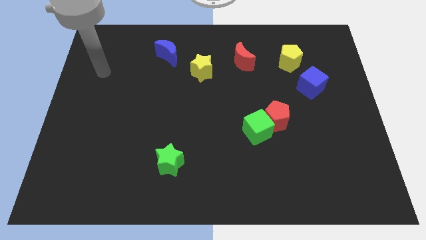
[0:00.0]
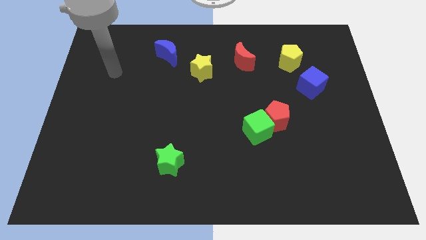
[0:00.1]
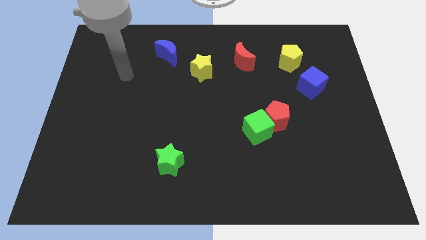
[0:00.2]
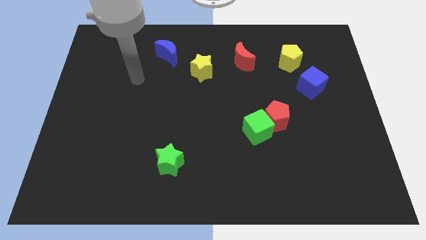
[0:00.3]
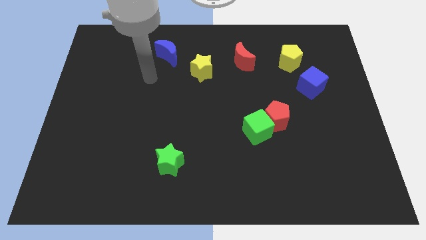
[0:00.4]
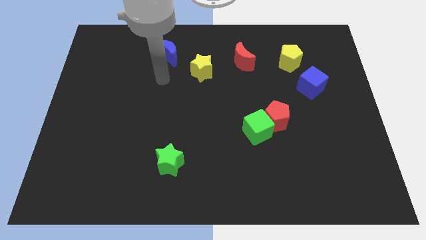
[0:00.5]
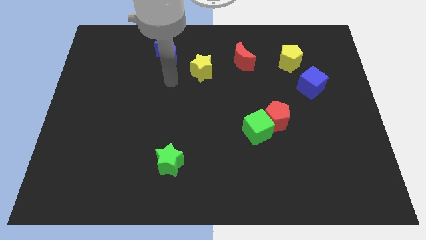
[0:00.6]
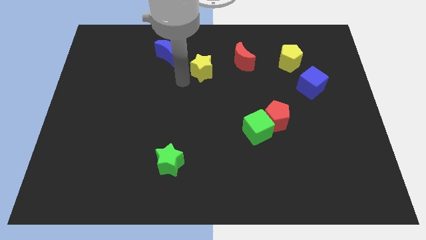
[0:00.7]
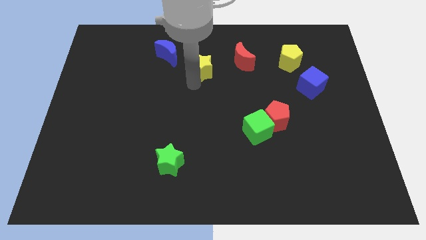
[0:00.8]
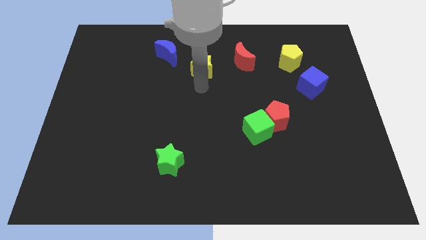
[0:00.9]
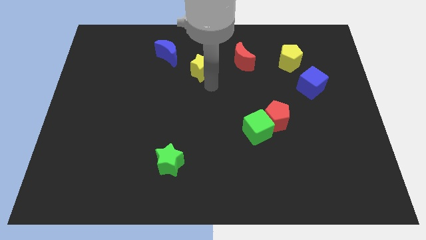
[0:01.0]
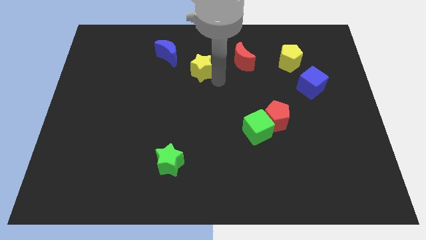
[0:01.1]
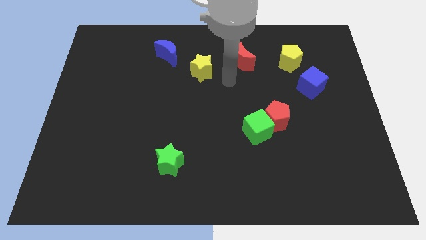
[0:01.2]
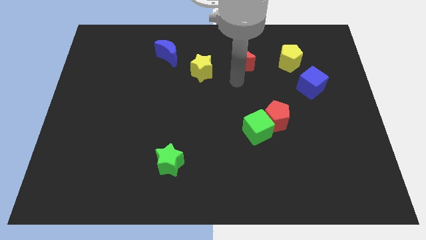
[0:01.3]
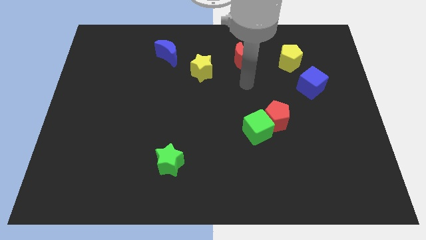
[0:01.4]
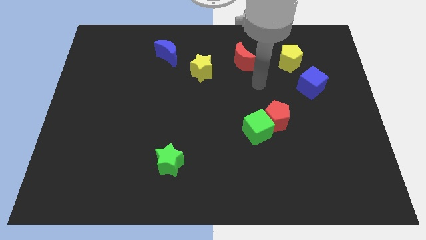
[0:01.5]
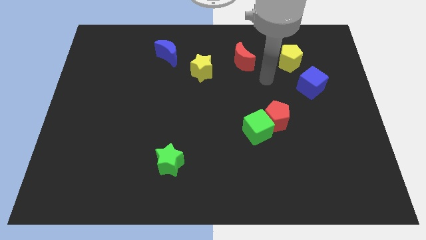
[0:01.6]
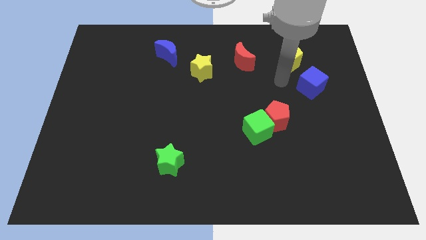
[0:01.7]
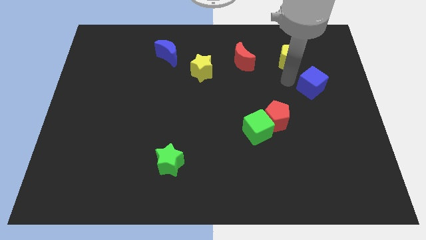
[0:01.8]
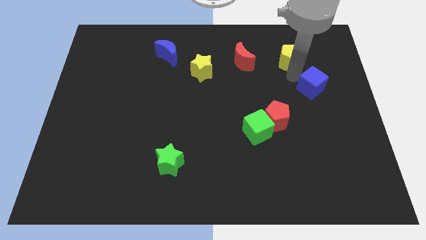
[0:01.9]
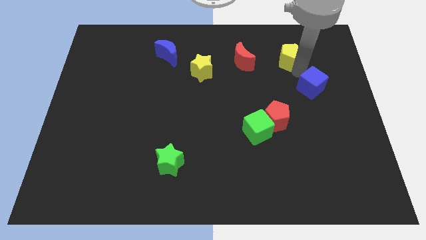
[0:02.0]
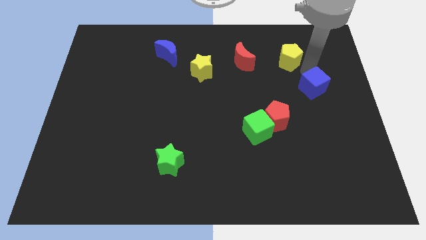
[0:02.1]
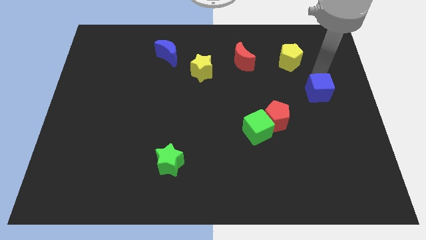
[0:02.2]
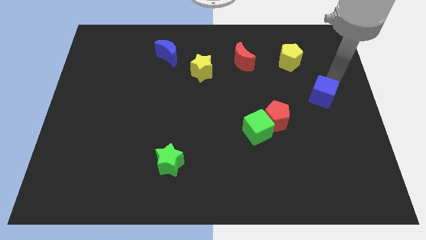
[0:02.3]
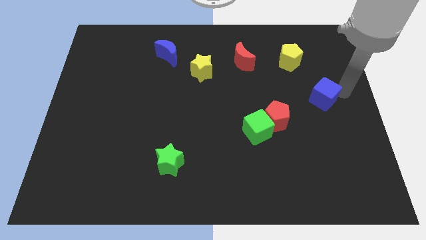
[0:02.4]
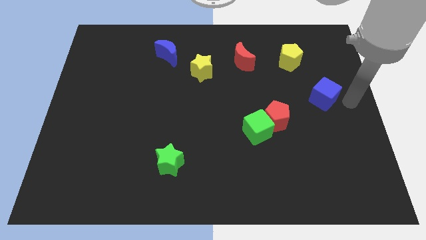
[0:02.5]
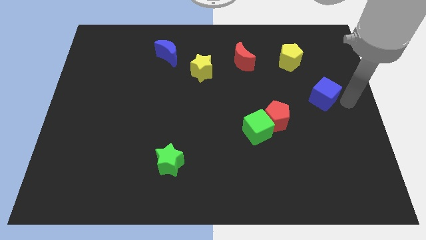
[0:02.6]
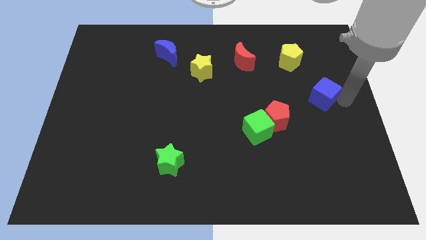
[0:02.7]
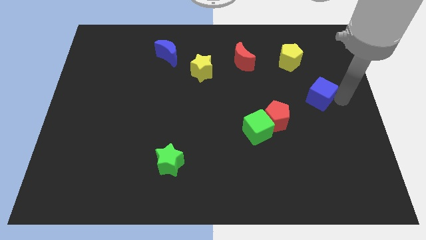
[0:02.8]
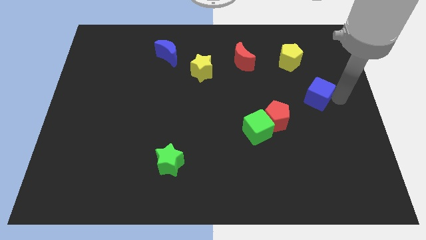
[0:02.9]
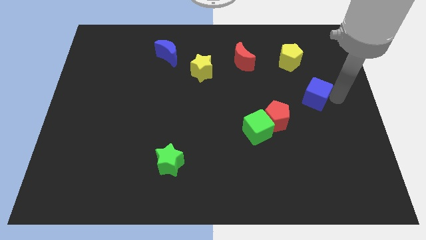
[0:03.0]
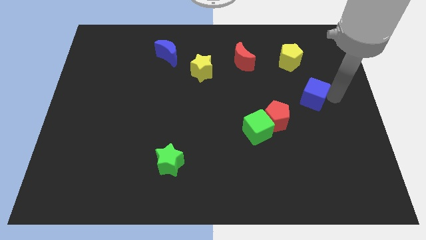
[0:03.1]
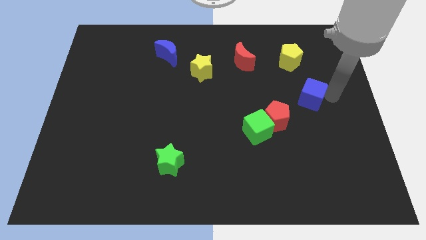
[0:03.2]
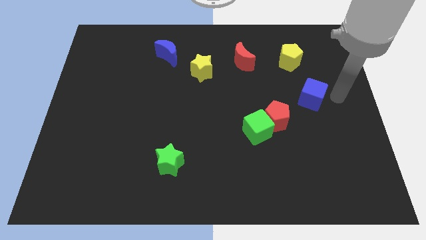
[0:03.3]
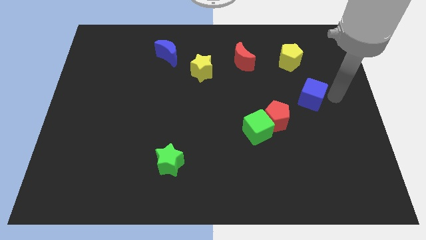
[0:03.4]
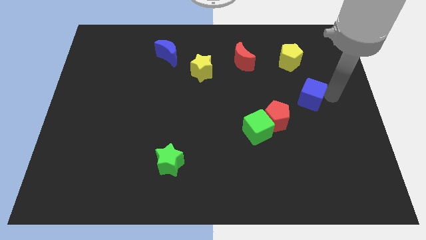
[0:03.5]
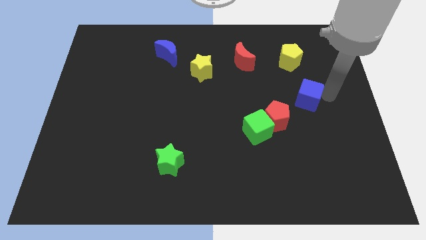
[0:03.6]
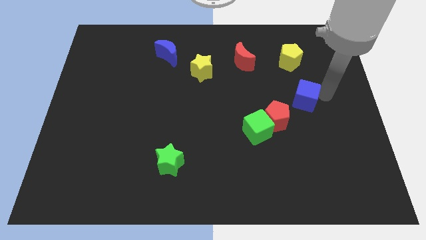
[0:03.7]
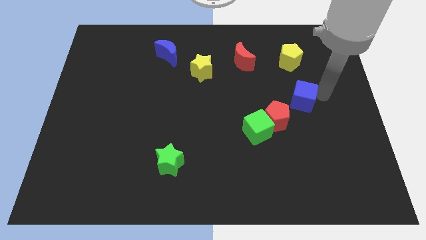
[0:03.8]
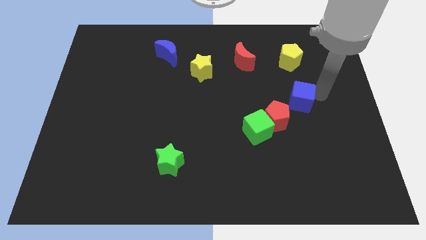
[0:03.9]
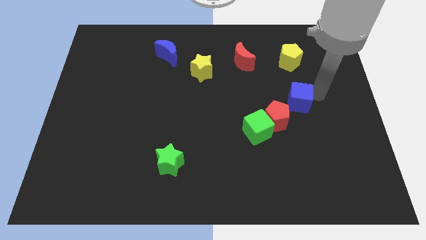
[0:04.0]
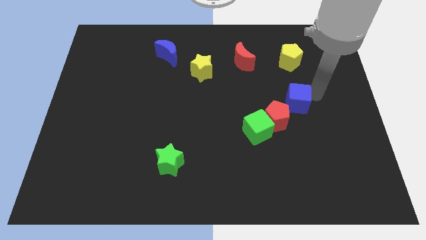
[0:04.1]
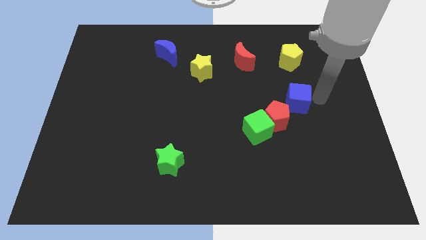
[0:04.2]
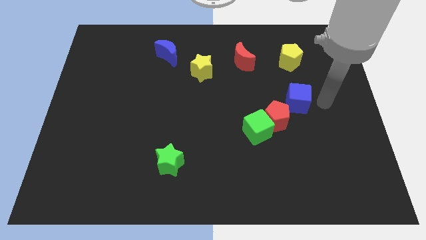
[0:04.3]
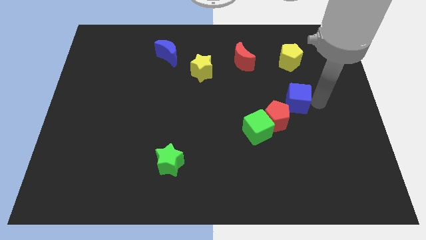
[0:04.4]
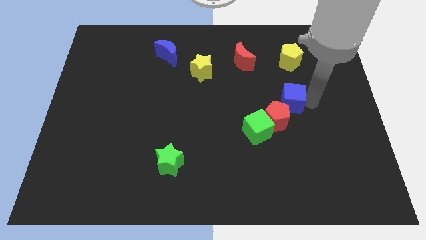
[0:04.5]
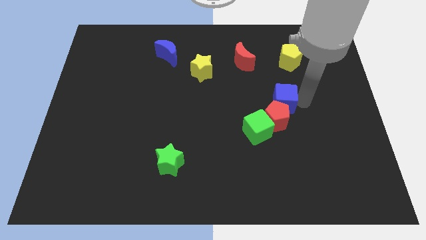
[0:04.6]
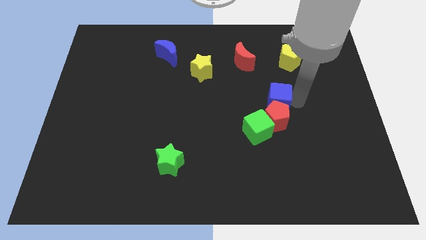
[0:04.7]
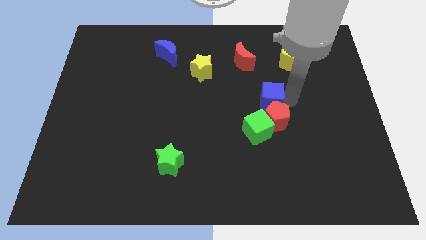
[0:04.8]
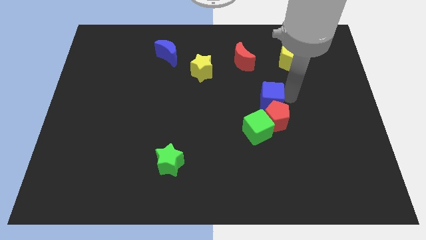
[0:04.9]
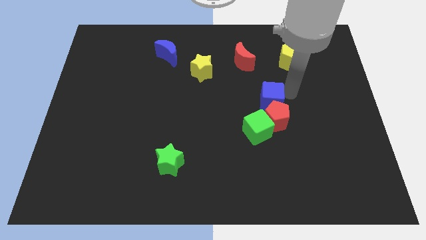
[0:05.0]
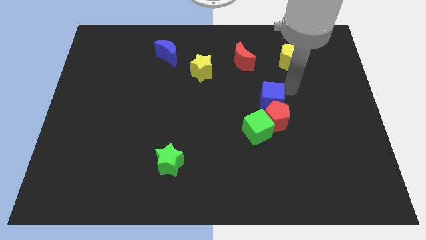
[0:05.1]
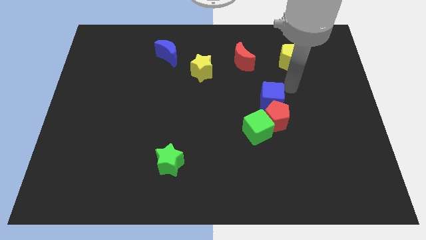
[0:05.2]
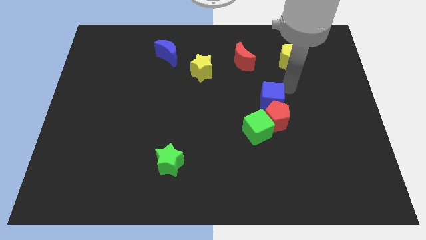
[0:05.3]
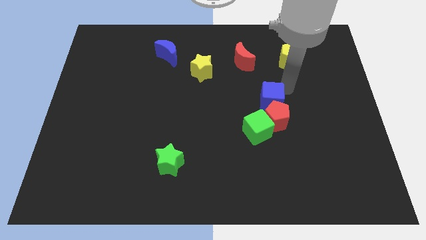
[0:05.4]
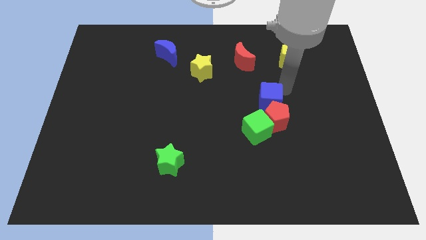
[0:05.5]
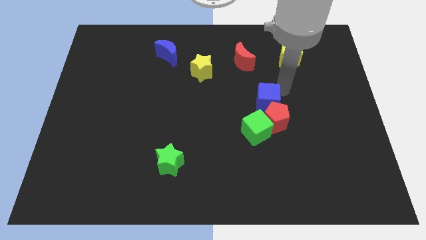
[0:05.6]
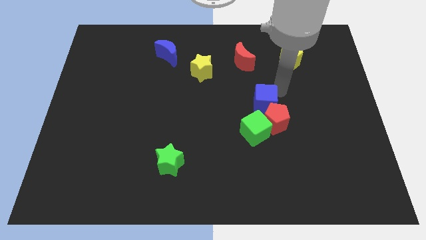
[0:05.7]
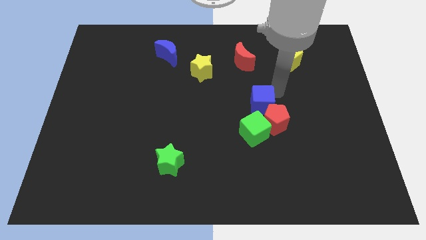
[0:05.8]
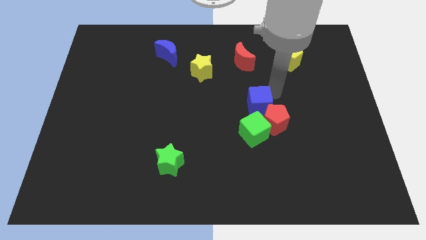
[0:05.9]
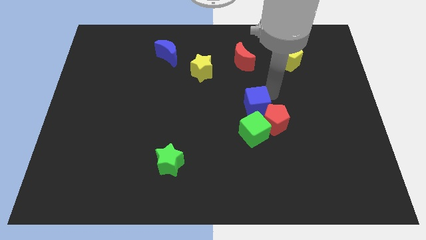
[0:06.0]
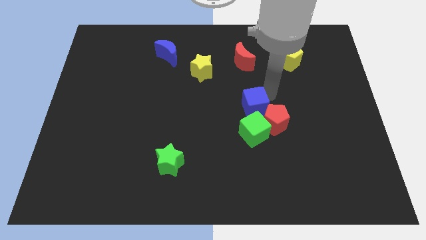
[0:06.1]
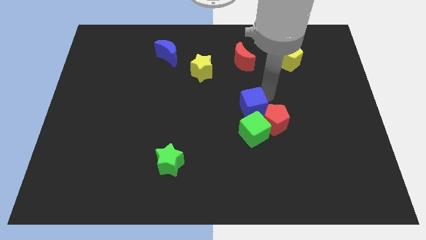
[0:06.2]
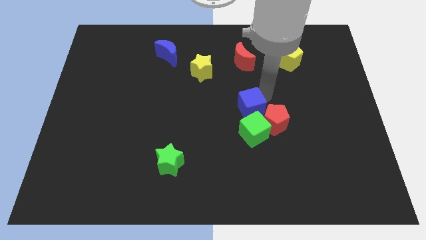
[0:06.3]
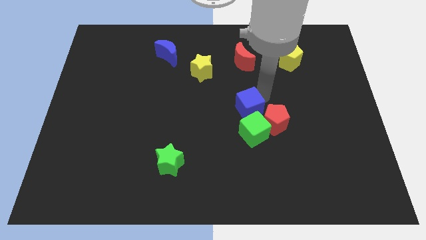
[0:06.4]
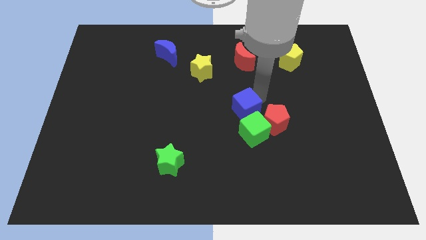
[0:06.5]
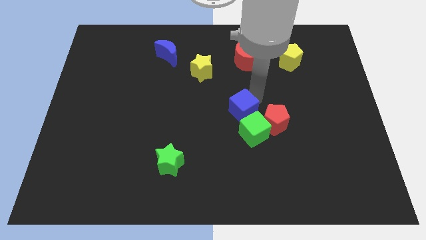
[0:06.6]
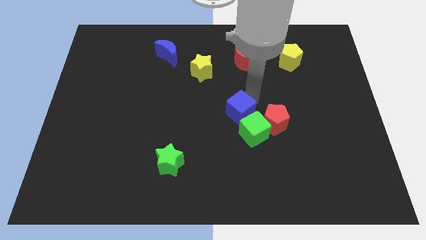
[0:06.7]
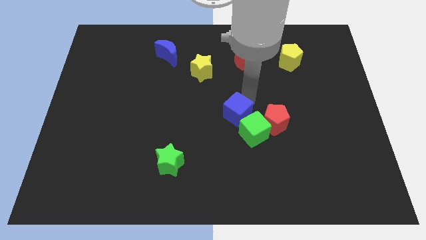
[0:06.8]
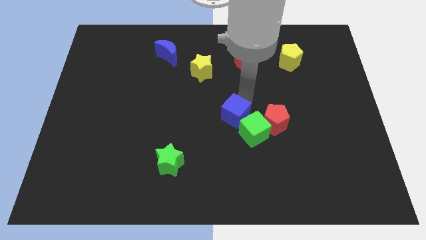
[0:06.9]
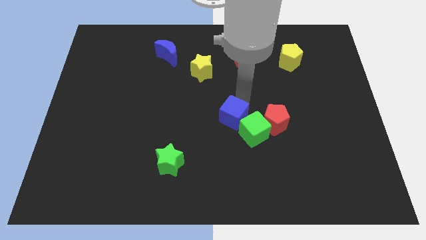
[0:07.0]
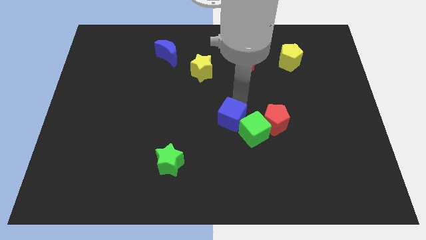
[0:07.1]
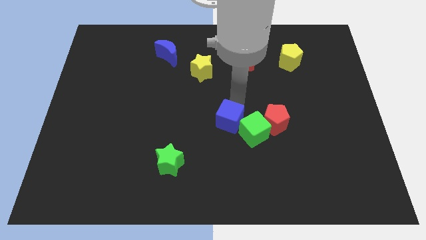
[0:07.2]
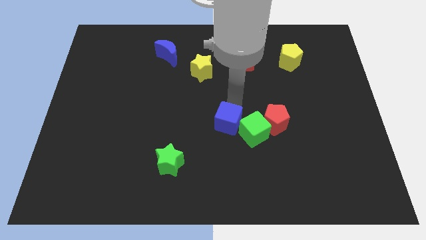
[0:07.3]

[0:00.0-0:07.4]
slide the blue cube downwards and then left

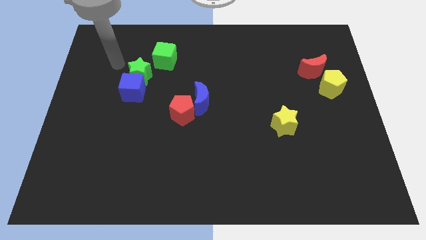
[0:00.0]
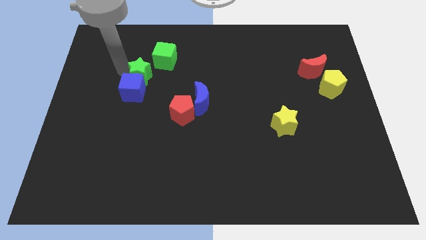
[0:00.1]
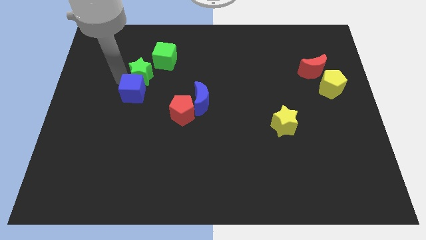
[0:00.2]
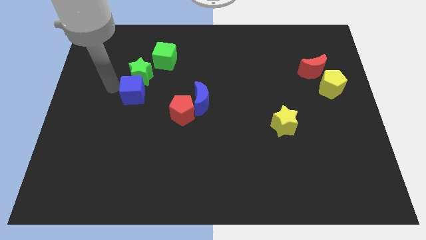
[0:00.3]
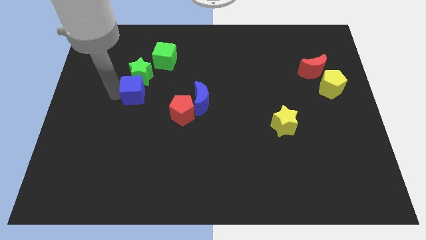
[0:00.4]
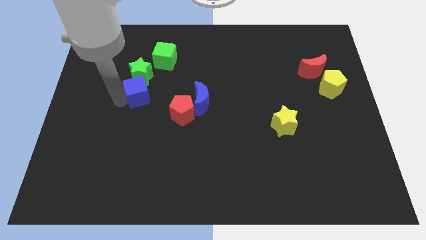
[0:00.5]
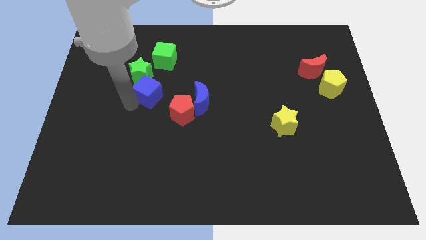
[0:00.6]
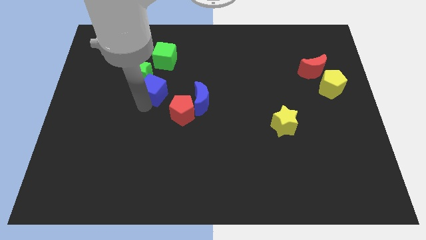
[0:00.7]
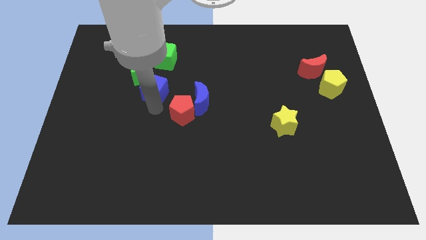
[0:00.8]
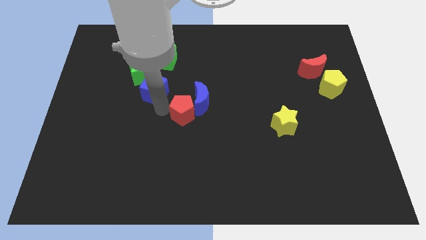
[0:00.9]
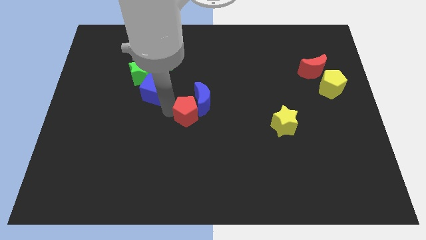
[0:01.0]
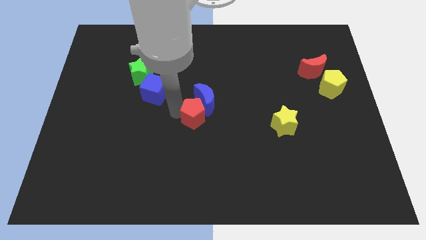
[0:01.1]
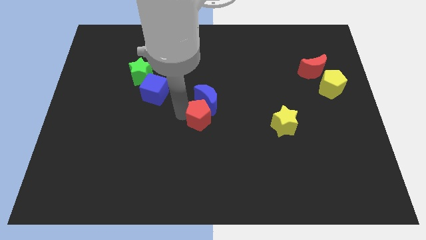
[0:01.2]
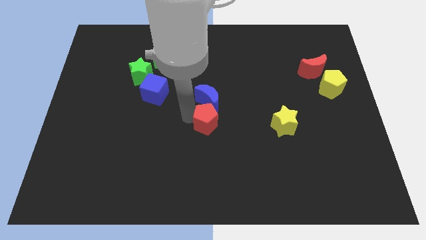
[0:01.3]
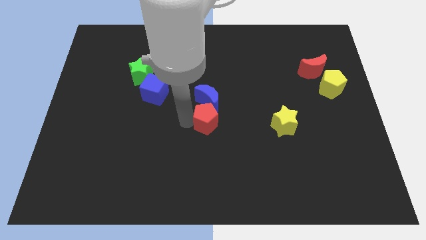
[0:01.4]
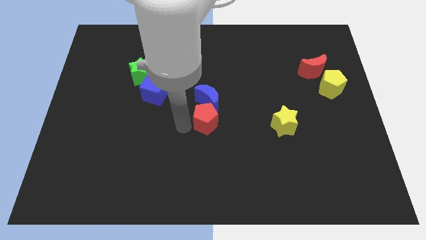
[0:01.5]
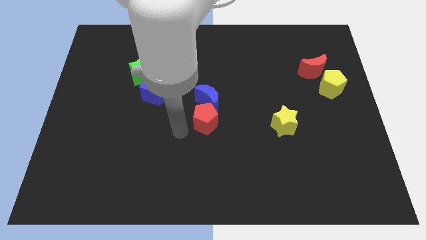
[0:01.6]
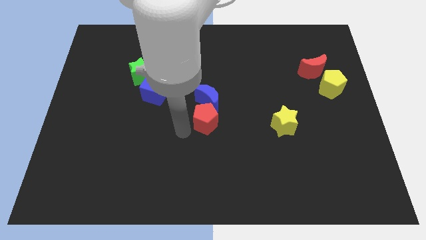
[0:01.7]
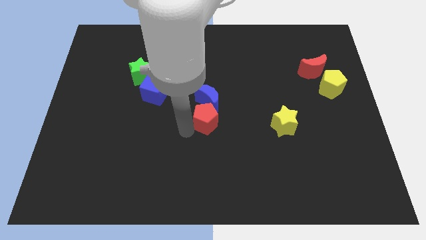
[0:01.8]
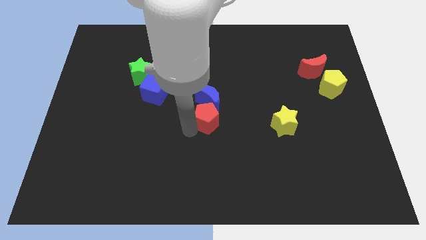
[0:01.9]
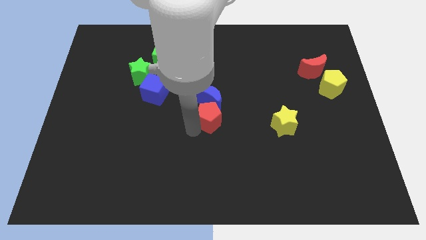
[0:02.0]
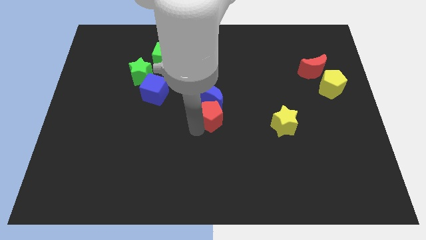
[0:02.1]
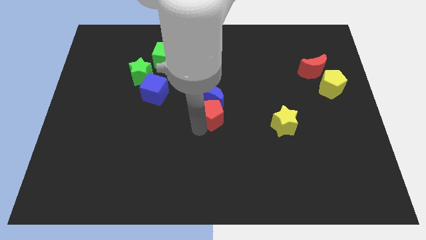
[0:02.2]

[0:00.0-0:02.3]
slightly push the red pentagon to the right
